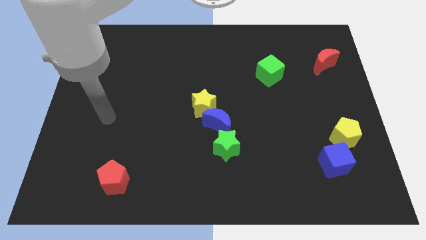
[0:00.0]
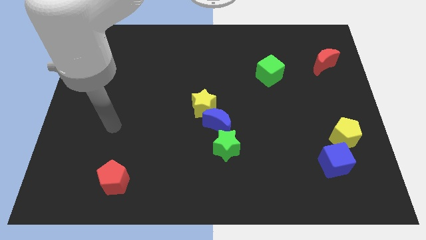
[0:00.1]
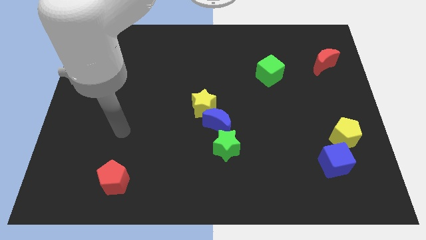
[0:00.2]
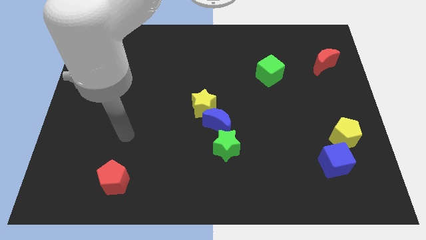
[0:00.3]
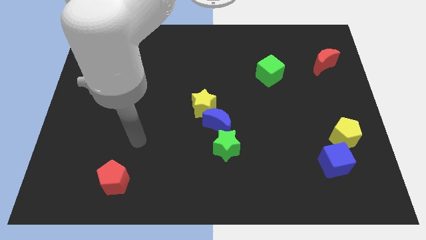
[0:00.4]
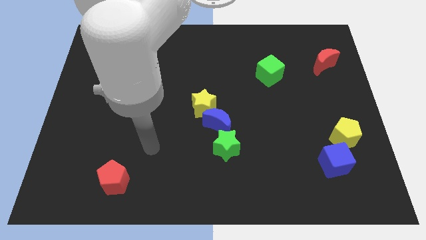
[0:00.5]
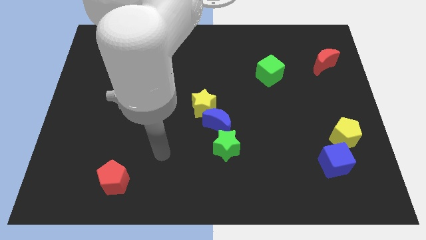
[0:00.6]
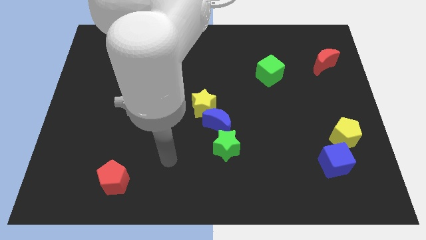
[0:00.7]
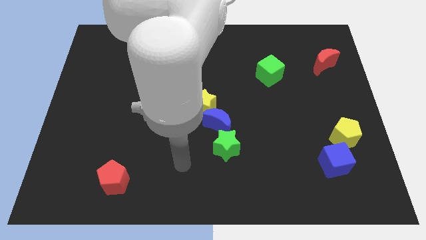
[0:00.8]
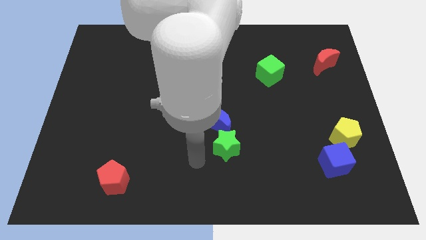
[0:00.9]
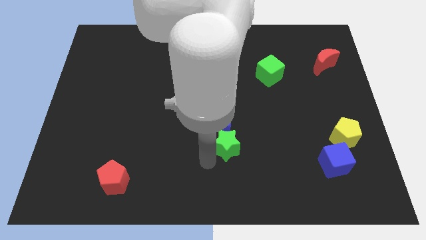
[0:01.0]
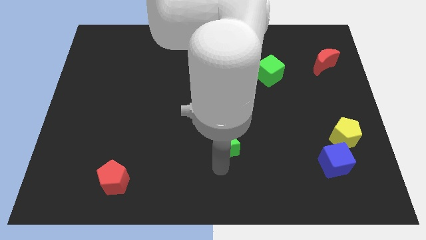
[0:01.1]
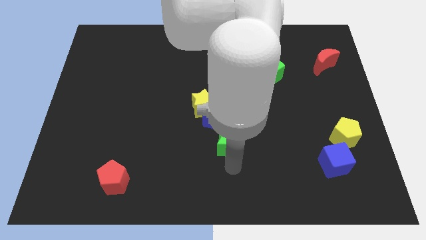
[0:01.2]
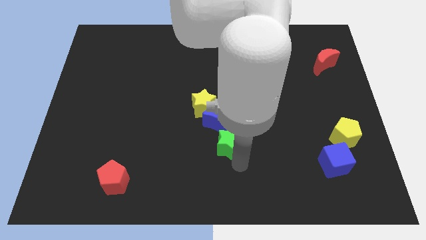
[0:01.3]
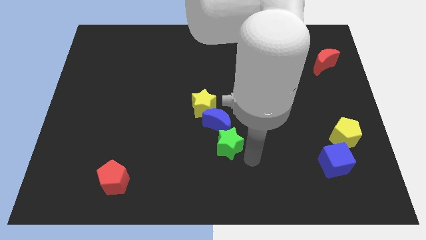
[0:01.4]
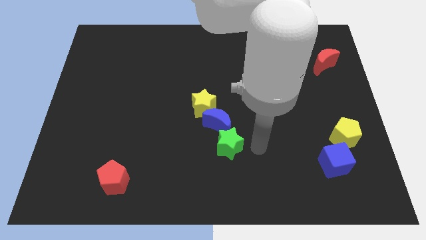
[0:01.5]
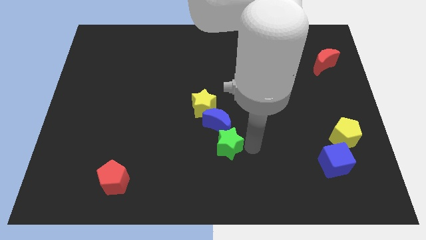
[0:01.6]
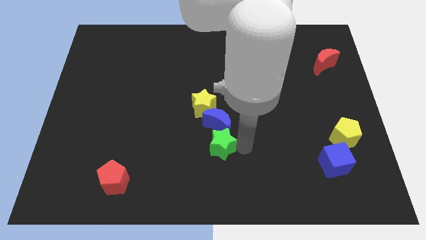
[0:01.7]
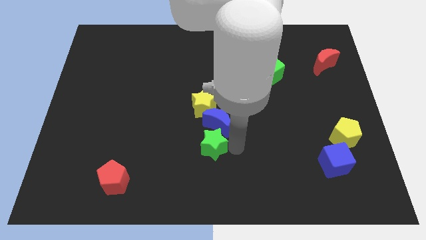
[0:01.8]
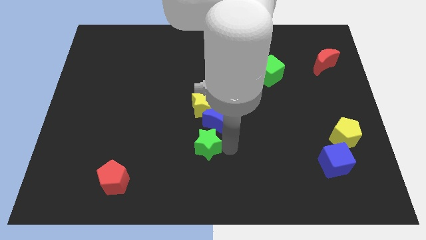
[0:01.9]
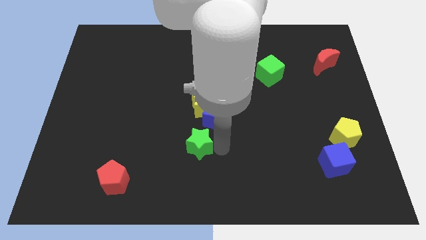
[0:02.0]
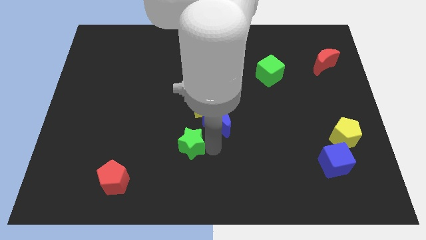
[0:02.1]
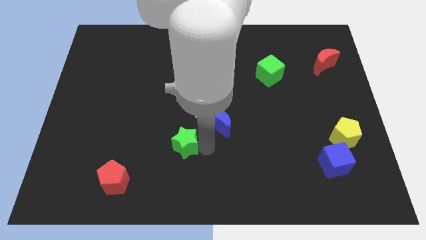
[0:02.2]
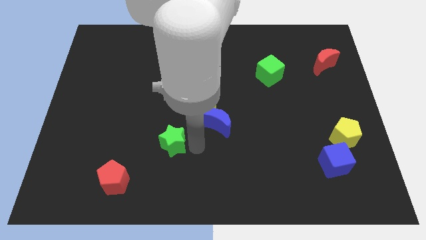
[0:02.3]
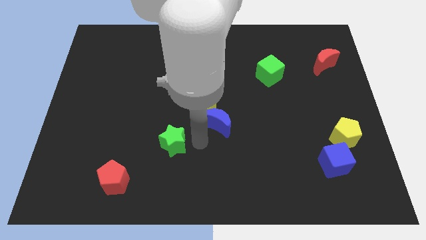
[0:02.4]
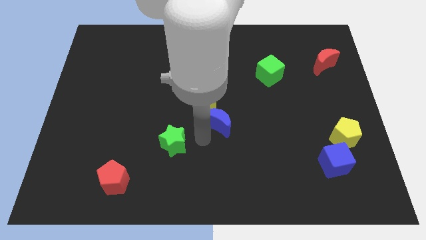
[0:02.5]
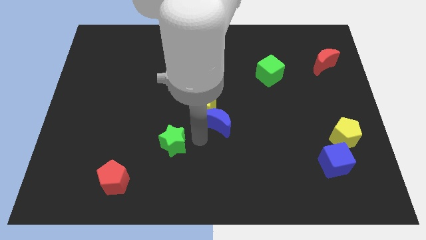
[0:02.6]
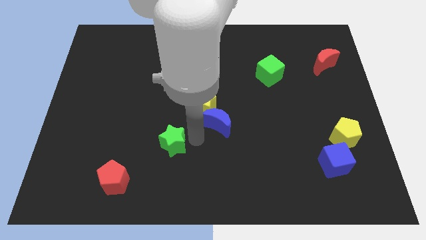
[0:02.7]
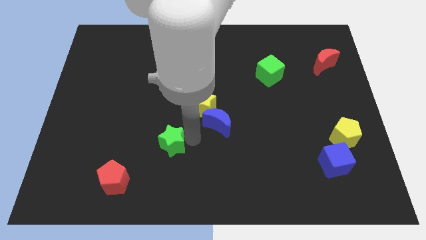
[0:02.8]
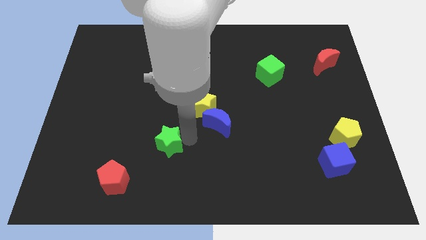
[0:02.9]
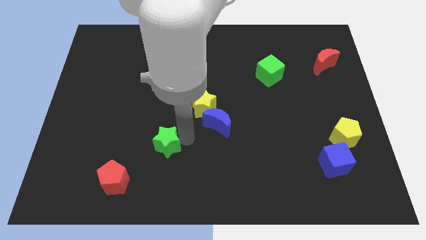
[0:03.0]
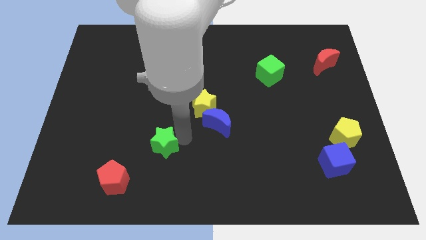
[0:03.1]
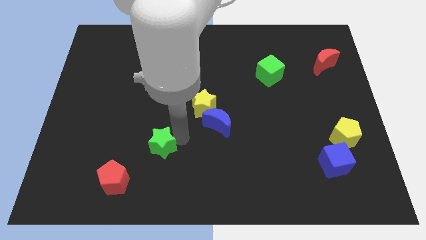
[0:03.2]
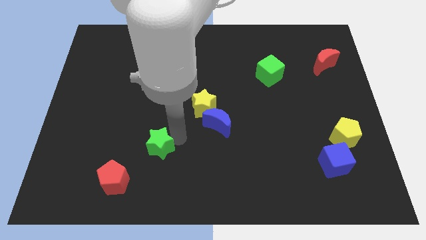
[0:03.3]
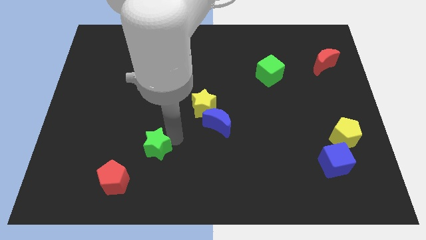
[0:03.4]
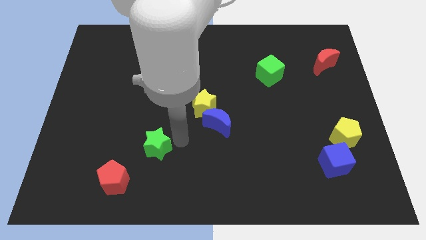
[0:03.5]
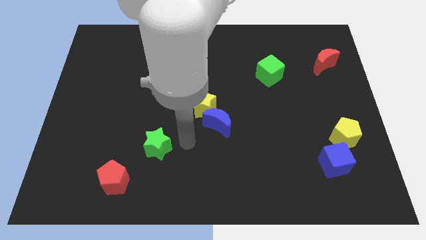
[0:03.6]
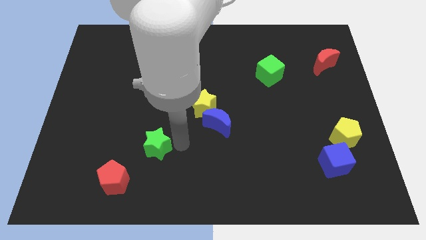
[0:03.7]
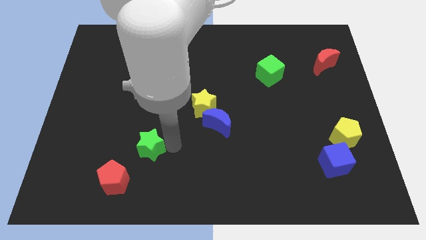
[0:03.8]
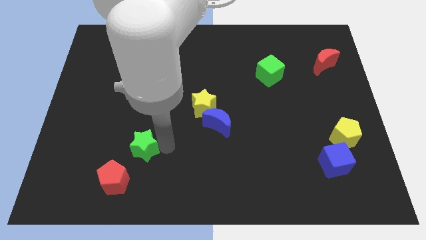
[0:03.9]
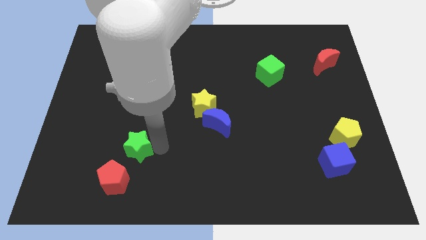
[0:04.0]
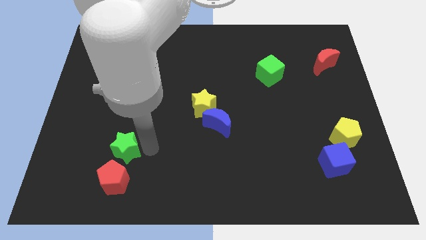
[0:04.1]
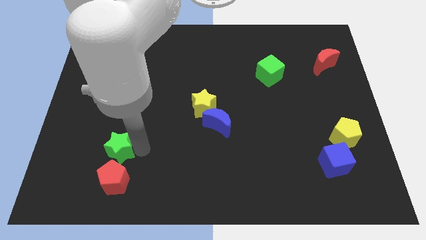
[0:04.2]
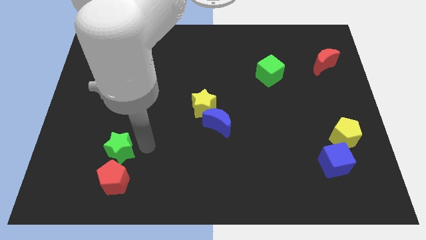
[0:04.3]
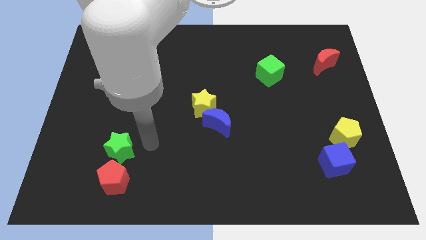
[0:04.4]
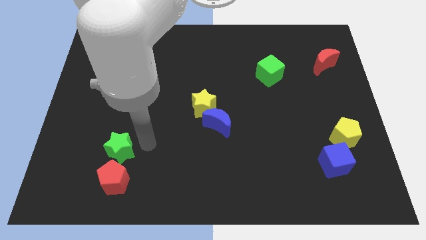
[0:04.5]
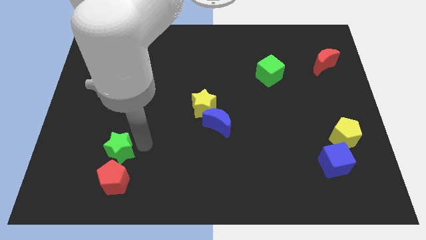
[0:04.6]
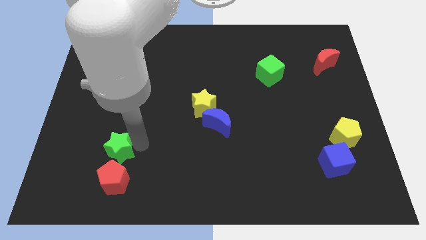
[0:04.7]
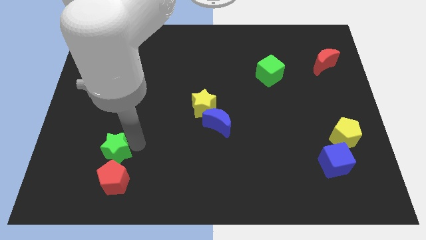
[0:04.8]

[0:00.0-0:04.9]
put the green star to the top left side of the red pentagon

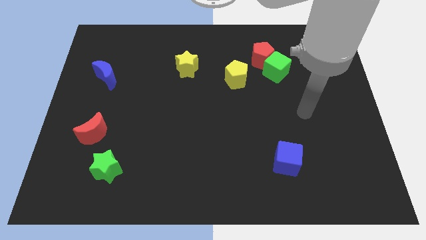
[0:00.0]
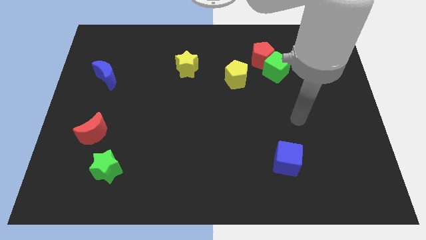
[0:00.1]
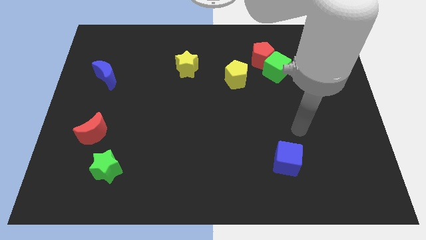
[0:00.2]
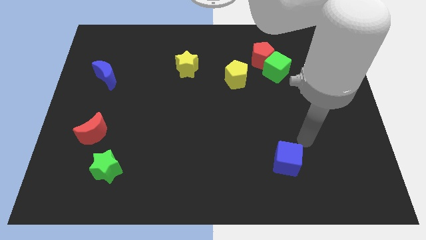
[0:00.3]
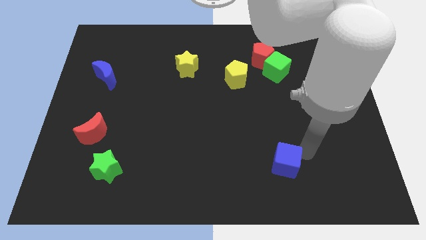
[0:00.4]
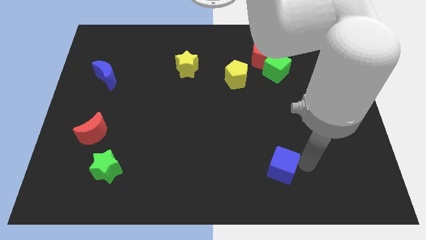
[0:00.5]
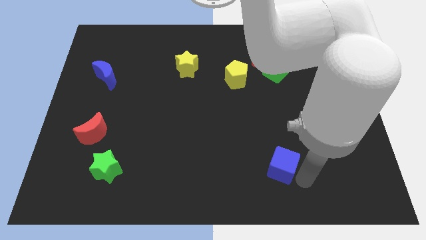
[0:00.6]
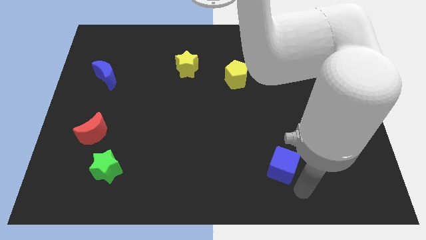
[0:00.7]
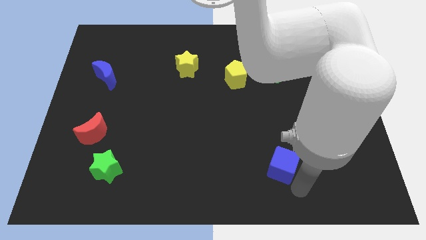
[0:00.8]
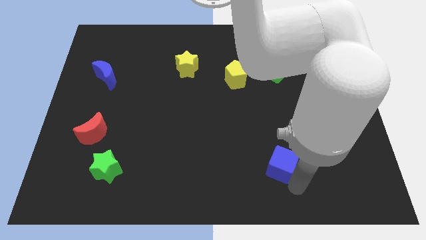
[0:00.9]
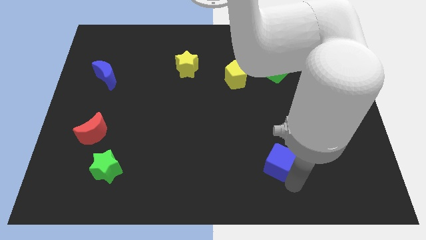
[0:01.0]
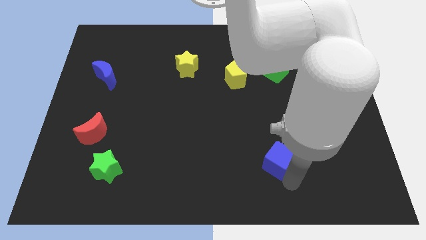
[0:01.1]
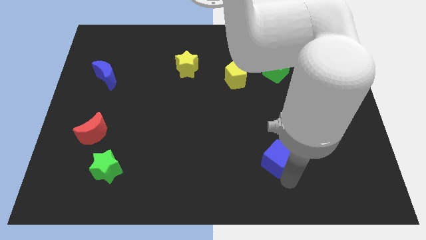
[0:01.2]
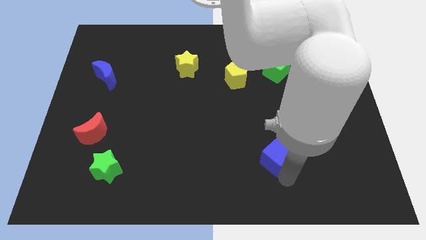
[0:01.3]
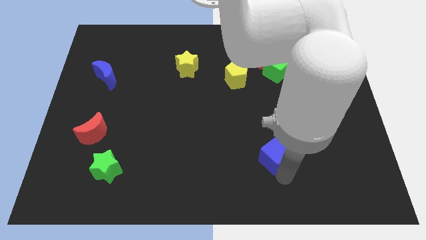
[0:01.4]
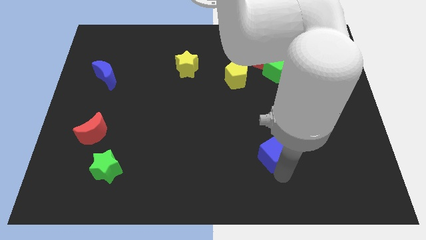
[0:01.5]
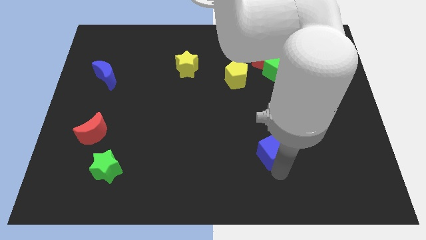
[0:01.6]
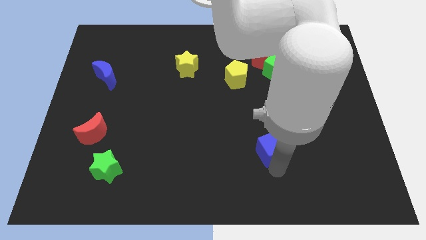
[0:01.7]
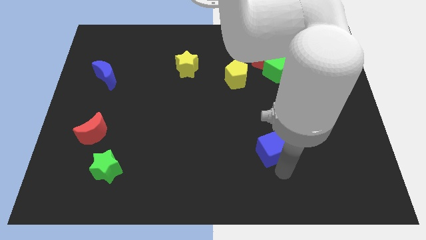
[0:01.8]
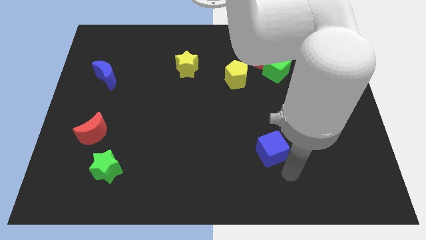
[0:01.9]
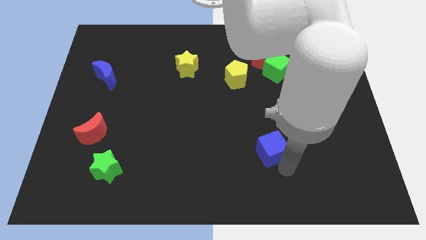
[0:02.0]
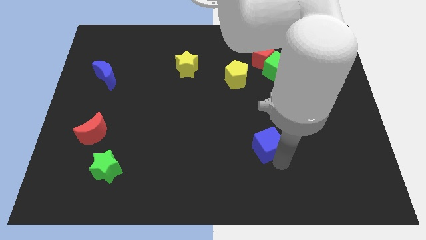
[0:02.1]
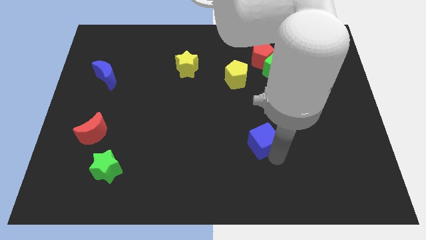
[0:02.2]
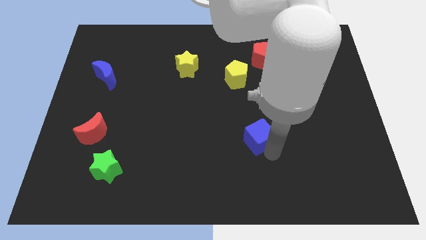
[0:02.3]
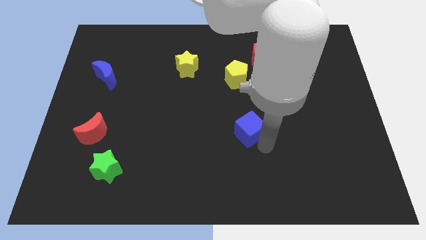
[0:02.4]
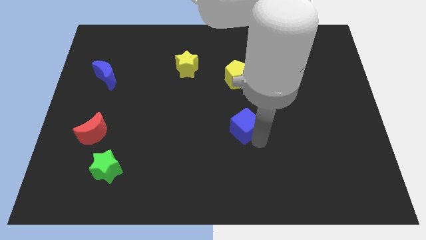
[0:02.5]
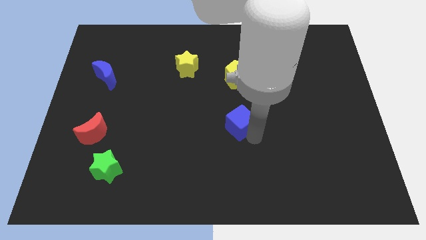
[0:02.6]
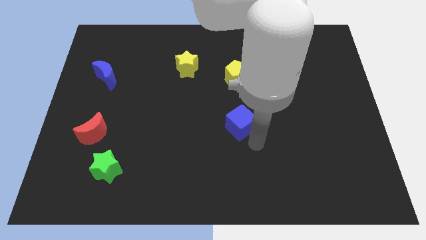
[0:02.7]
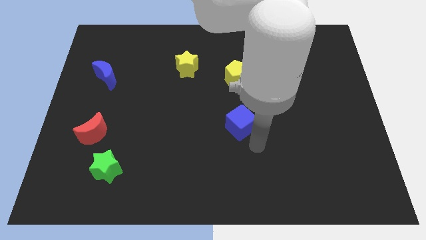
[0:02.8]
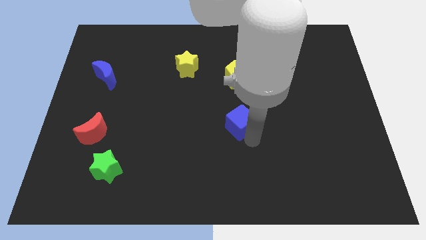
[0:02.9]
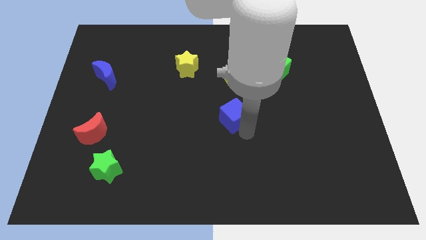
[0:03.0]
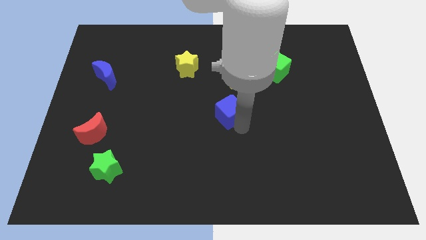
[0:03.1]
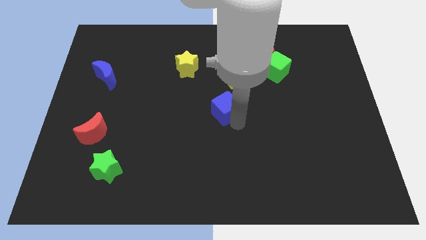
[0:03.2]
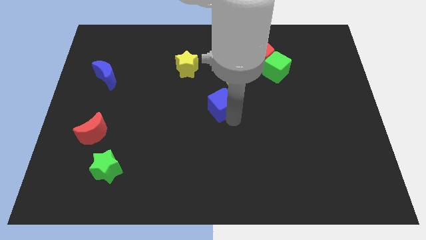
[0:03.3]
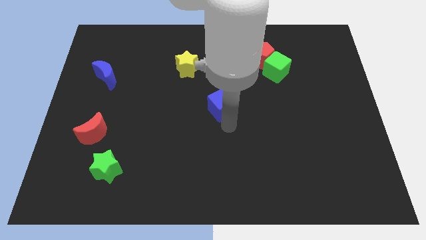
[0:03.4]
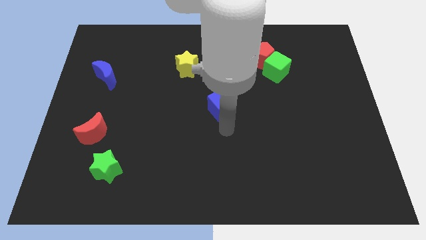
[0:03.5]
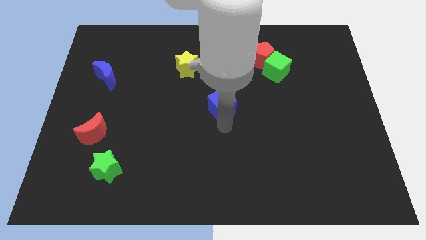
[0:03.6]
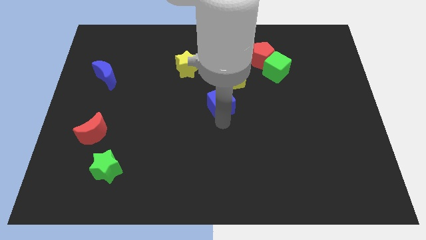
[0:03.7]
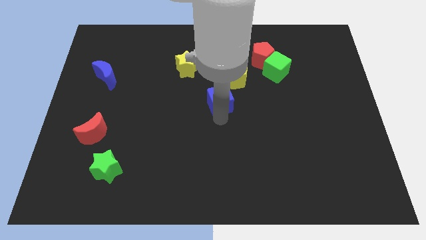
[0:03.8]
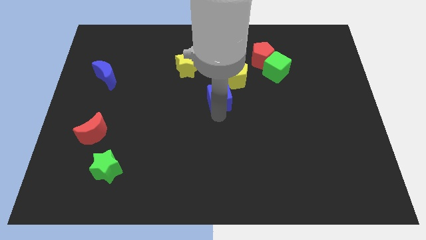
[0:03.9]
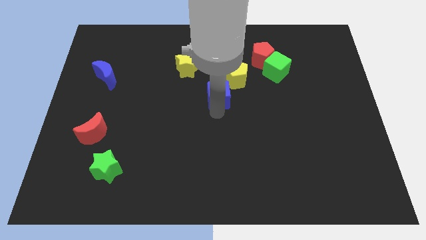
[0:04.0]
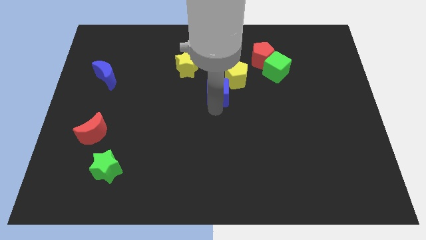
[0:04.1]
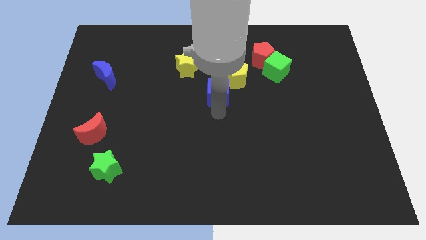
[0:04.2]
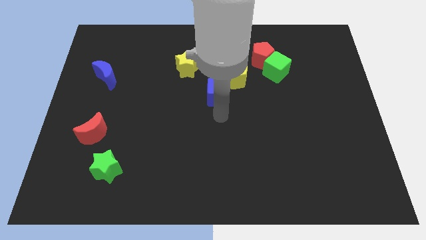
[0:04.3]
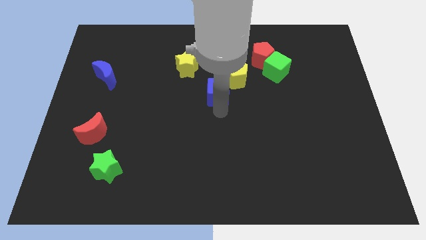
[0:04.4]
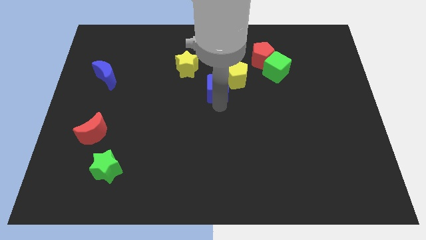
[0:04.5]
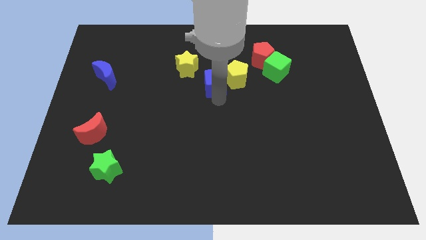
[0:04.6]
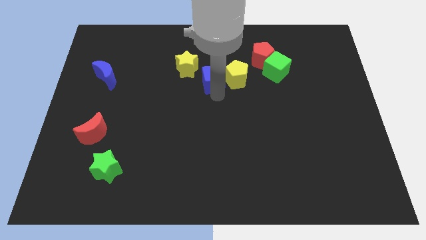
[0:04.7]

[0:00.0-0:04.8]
push the blue cube diagonally up and to the left of the yellow pentagon
